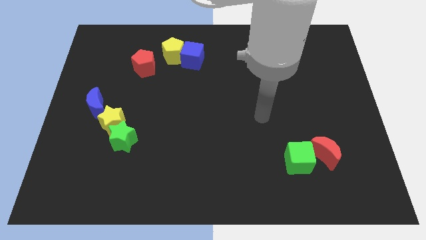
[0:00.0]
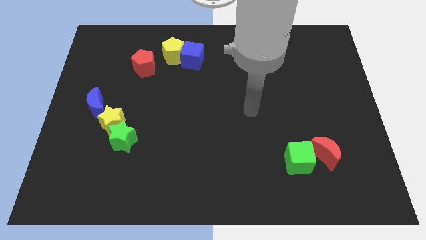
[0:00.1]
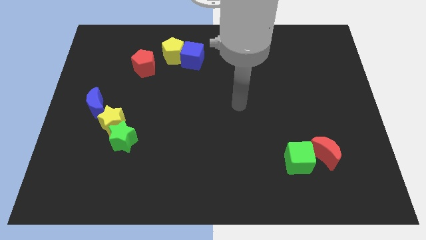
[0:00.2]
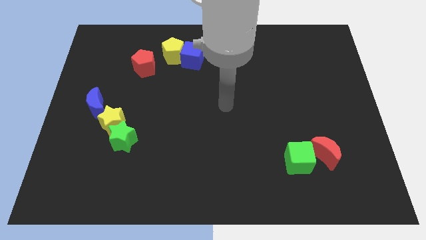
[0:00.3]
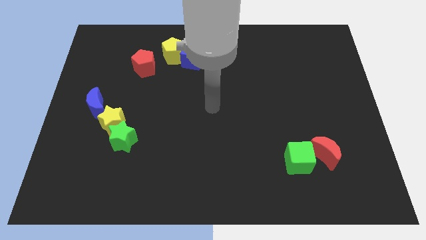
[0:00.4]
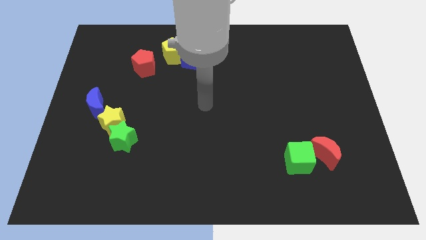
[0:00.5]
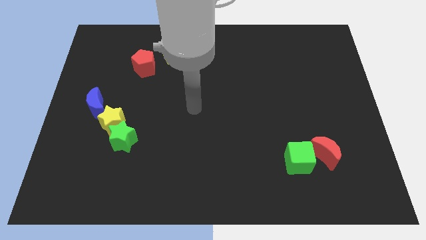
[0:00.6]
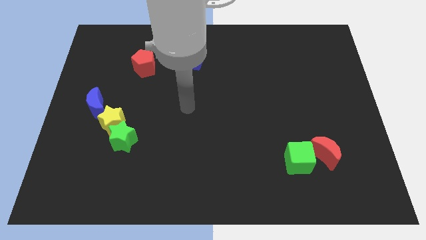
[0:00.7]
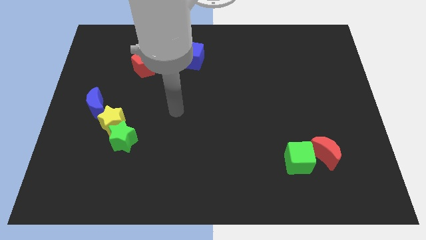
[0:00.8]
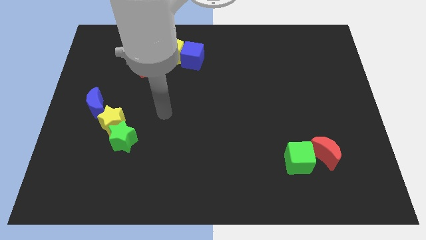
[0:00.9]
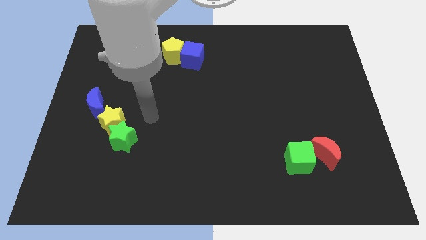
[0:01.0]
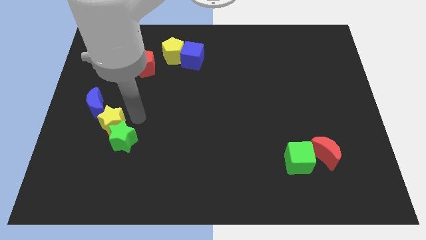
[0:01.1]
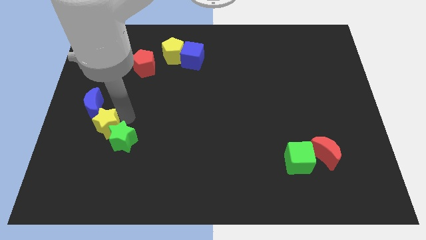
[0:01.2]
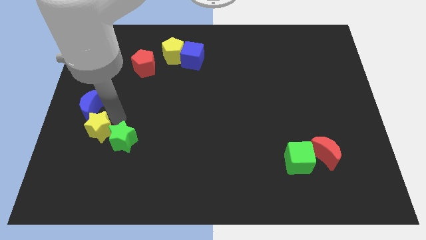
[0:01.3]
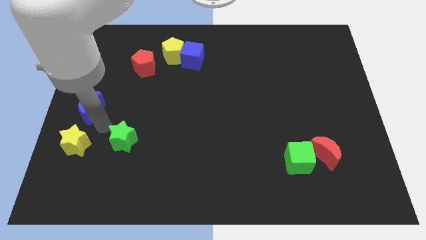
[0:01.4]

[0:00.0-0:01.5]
separate the green star from the yellow star

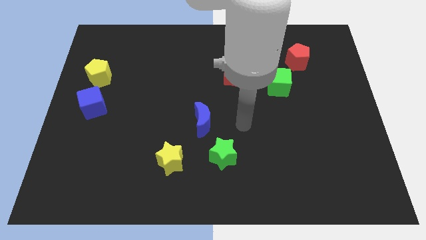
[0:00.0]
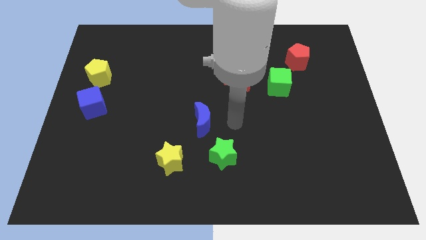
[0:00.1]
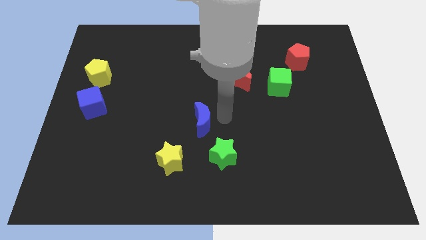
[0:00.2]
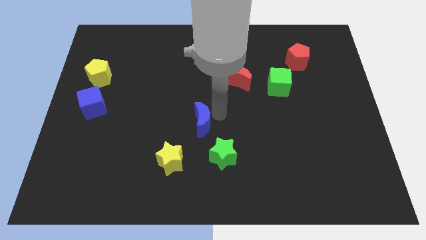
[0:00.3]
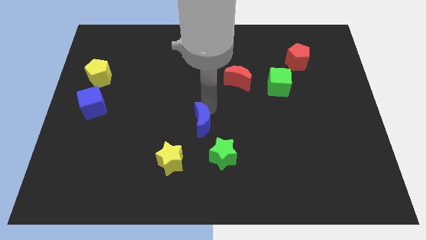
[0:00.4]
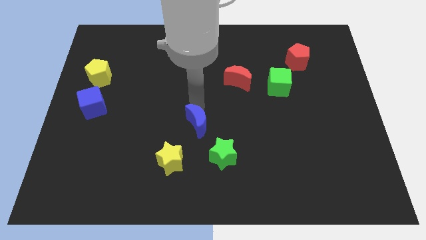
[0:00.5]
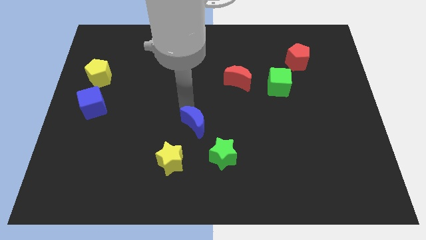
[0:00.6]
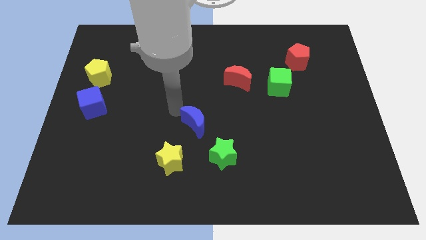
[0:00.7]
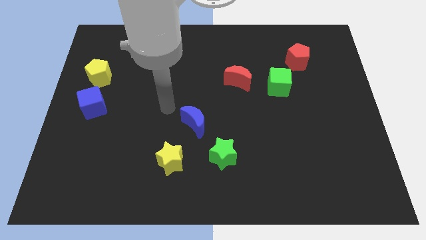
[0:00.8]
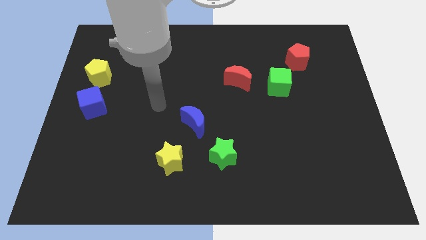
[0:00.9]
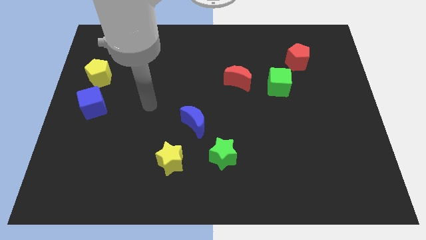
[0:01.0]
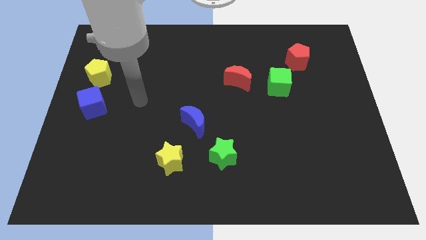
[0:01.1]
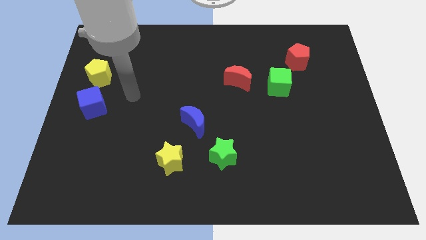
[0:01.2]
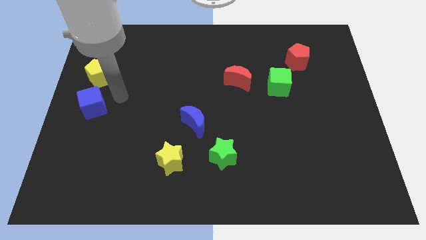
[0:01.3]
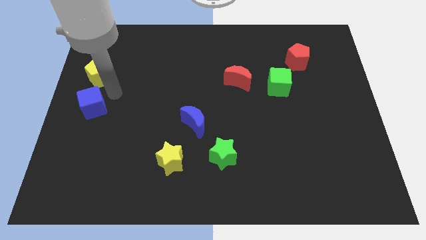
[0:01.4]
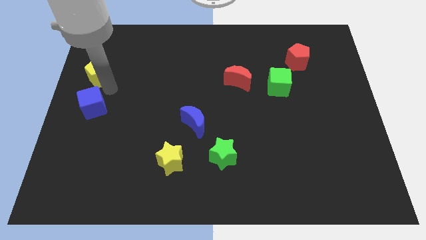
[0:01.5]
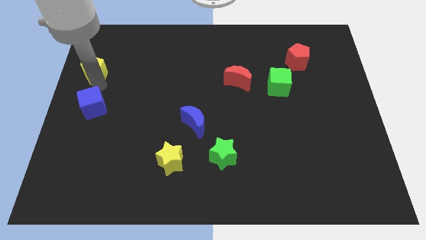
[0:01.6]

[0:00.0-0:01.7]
separate the blue cube from the yellow pentagon

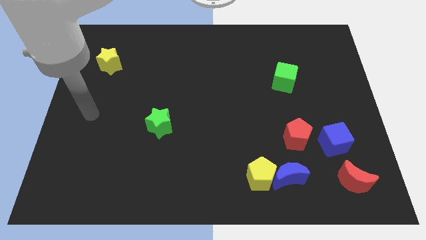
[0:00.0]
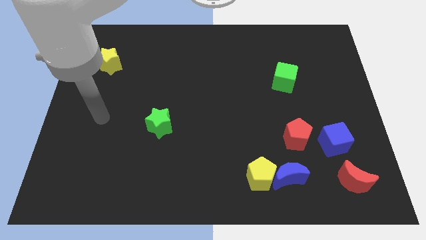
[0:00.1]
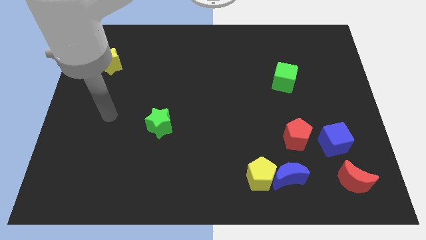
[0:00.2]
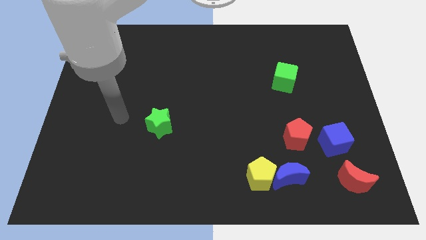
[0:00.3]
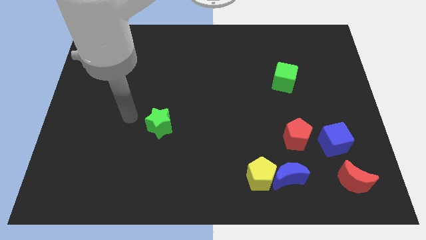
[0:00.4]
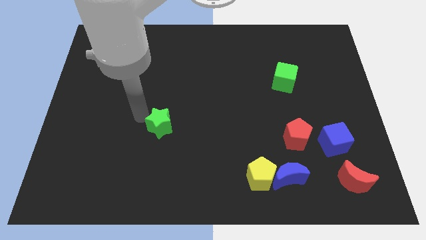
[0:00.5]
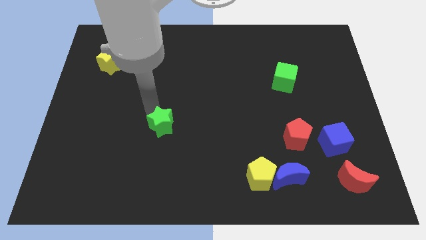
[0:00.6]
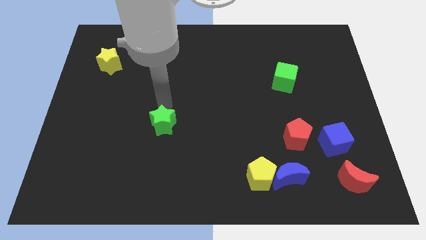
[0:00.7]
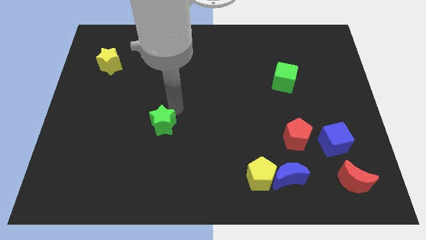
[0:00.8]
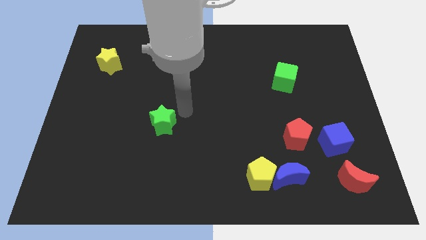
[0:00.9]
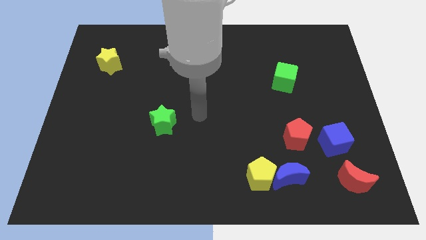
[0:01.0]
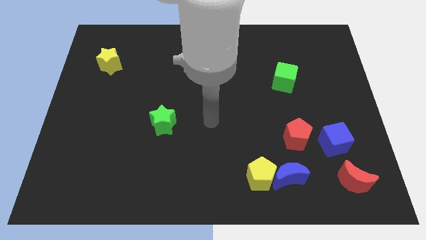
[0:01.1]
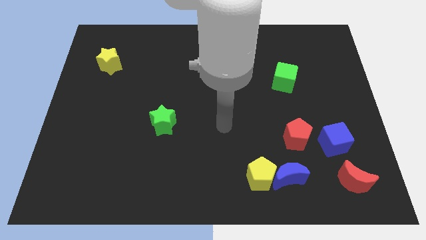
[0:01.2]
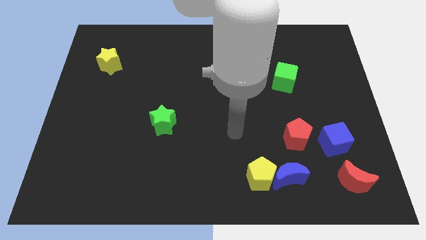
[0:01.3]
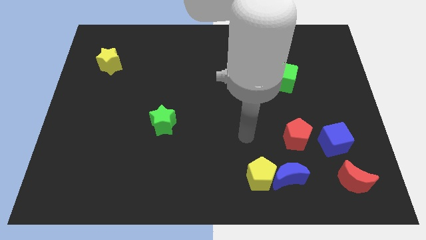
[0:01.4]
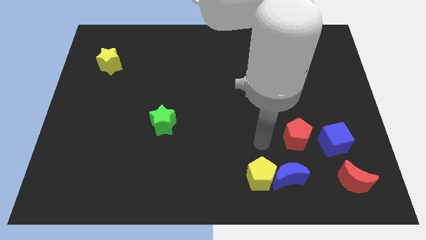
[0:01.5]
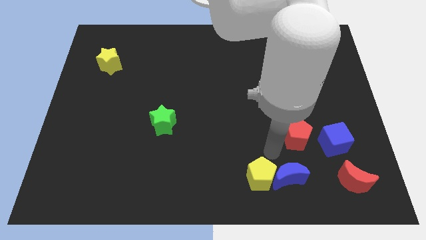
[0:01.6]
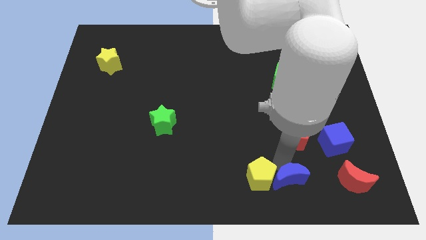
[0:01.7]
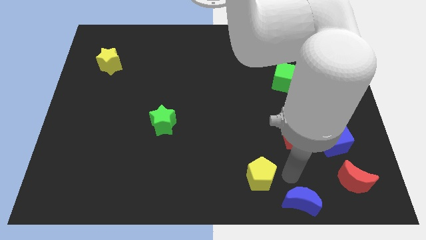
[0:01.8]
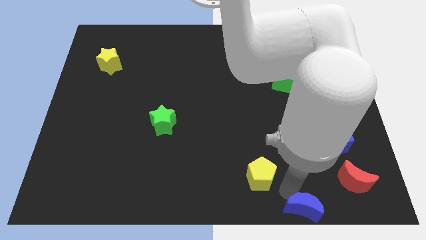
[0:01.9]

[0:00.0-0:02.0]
separate the yellow pentagon from the blue moon

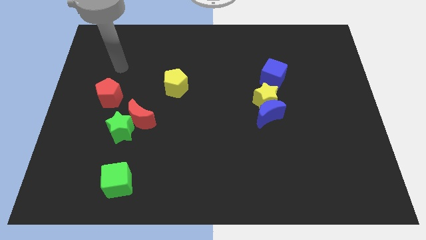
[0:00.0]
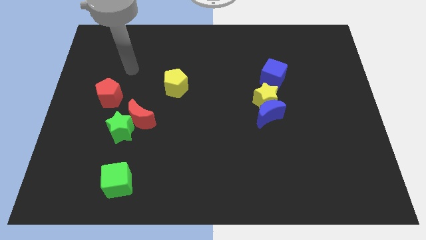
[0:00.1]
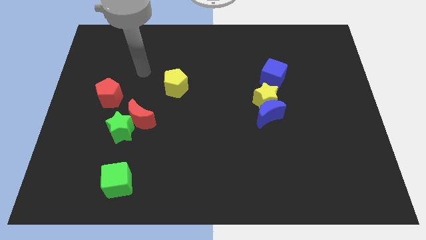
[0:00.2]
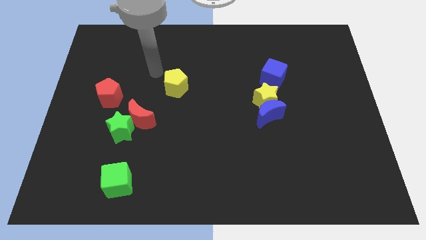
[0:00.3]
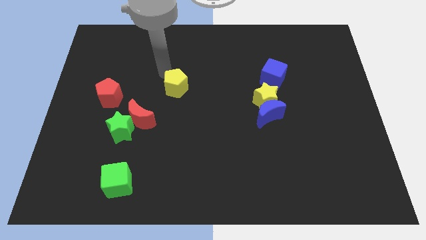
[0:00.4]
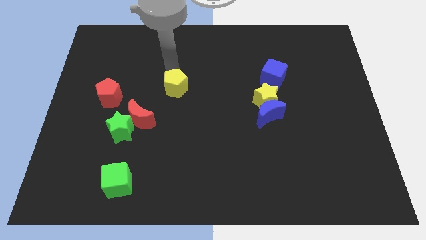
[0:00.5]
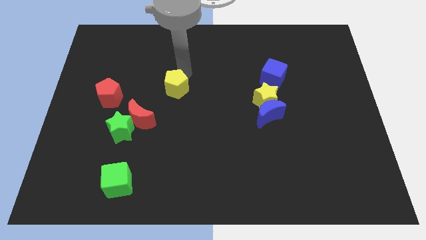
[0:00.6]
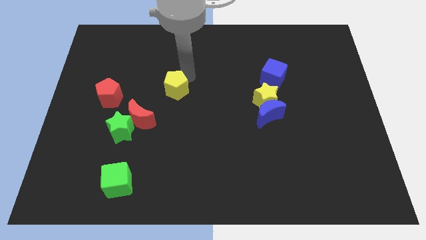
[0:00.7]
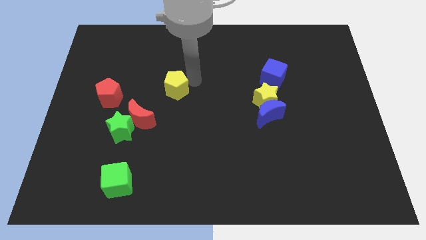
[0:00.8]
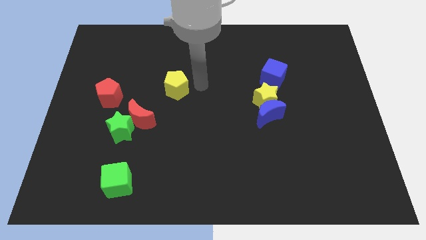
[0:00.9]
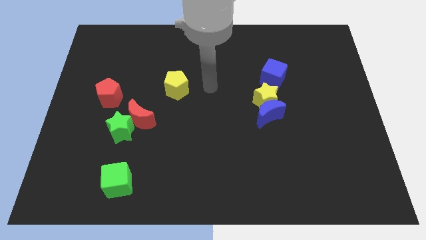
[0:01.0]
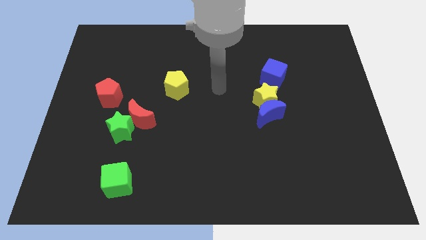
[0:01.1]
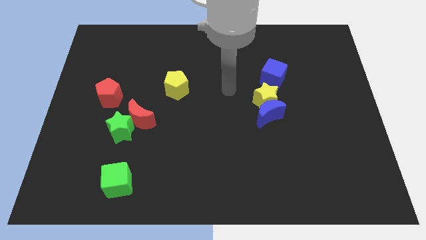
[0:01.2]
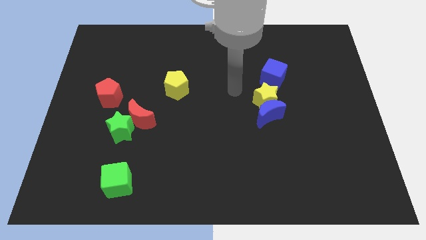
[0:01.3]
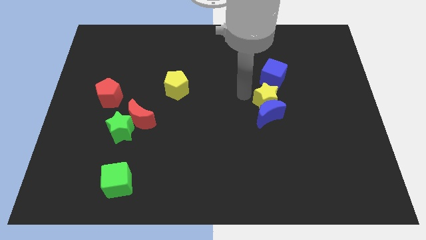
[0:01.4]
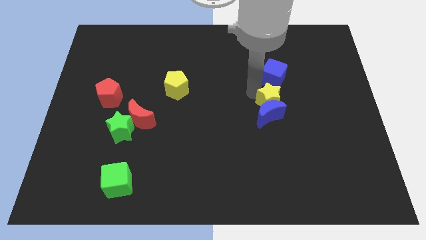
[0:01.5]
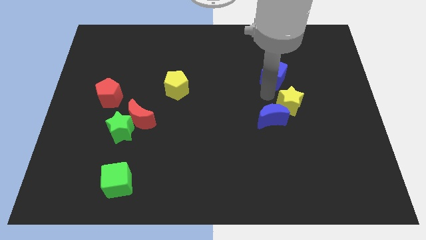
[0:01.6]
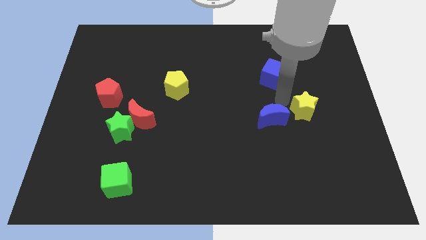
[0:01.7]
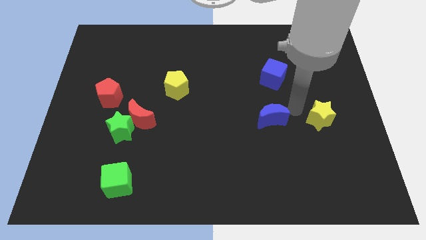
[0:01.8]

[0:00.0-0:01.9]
pull the blue moon apart from the yellow star

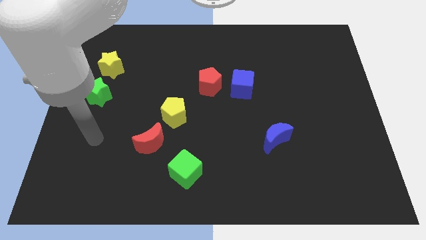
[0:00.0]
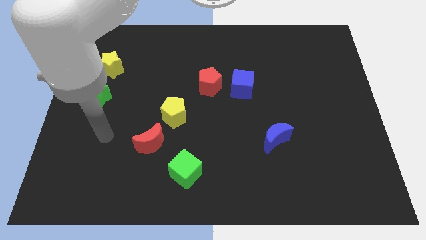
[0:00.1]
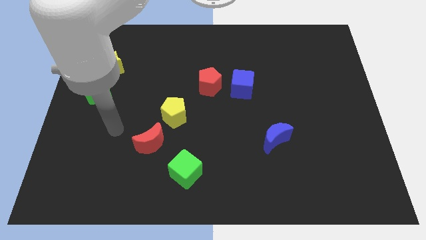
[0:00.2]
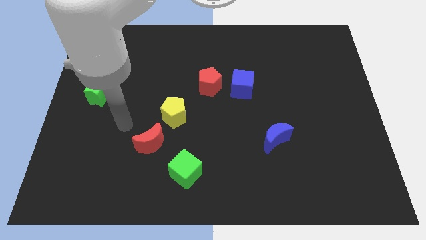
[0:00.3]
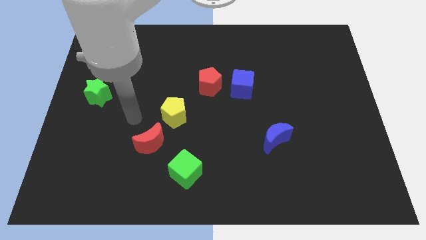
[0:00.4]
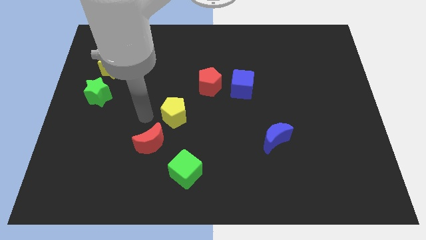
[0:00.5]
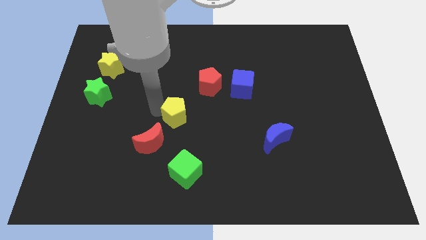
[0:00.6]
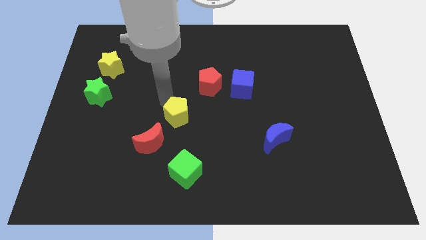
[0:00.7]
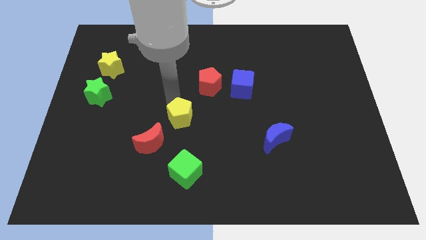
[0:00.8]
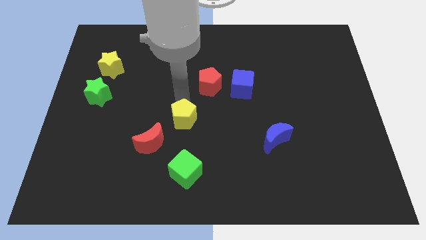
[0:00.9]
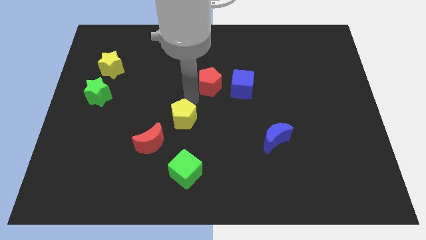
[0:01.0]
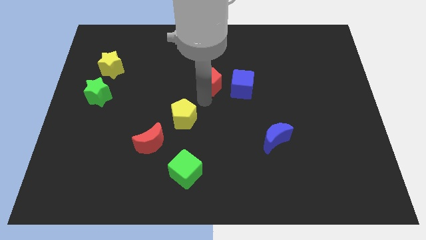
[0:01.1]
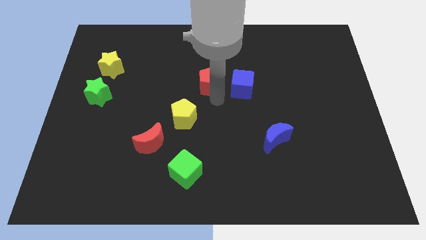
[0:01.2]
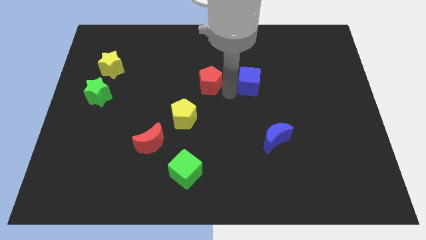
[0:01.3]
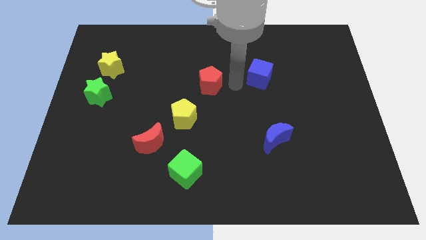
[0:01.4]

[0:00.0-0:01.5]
pull the red pentagon apart from the blue cube

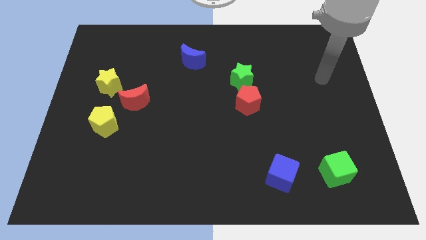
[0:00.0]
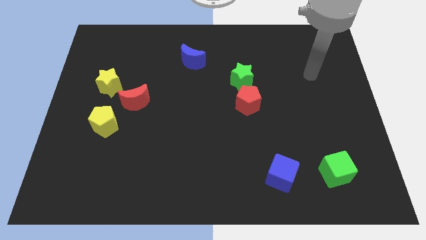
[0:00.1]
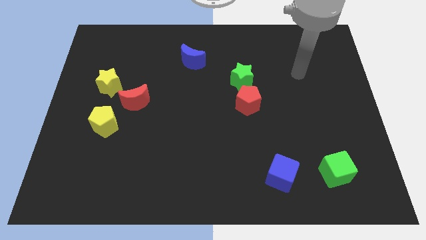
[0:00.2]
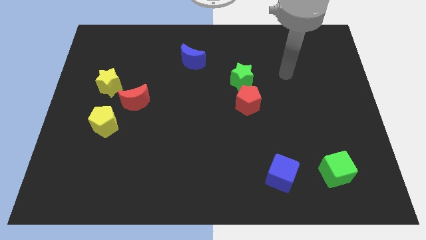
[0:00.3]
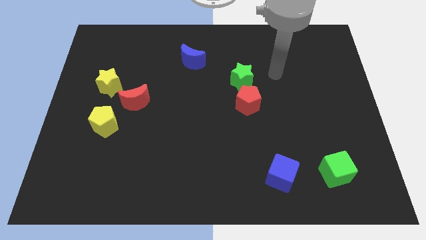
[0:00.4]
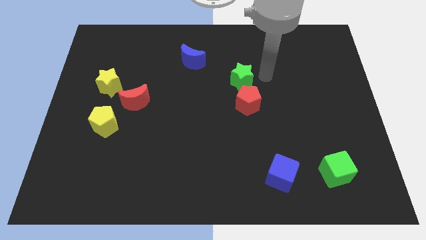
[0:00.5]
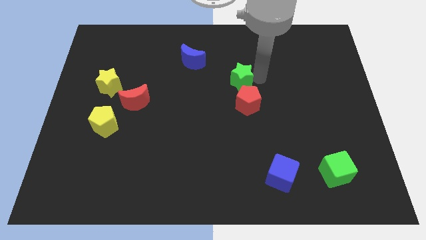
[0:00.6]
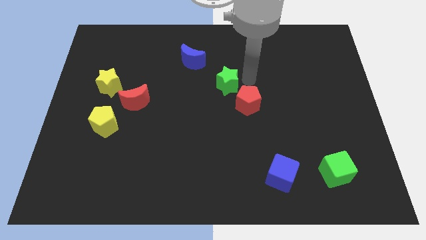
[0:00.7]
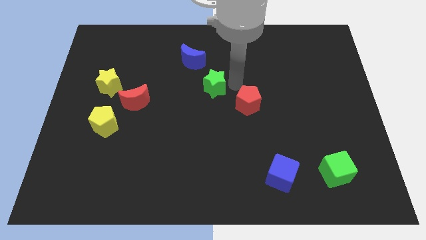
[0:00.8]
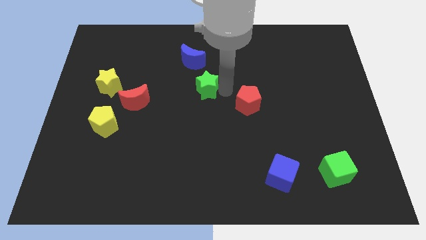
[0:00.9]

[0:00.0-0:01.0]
move the red pentagon away from the green star
